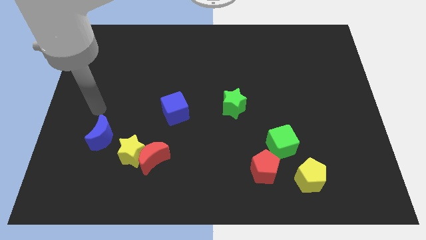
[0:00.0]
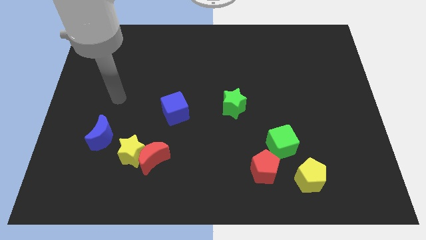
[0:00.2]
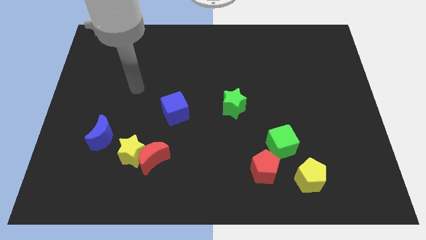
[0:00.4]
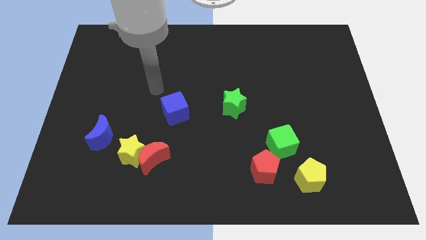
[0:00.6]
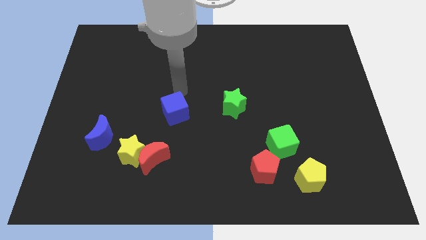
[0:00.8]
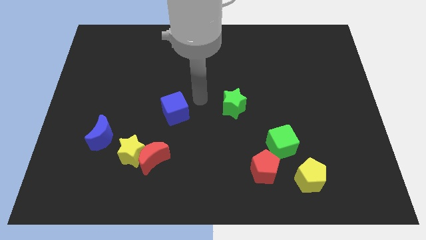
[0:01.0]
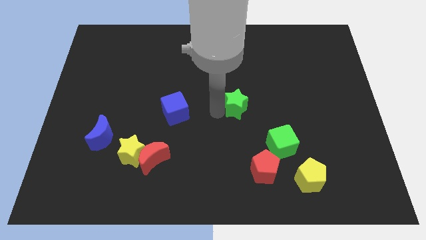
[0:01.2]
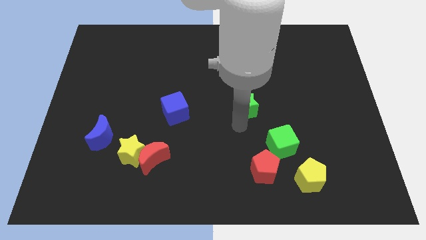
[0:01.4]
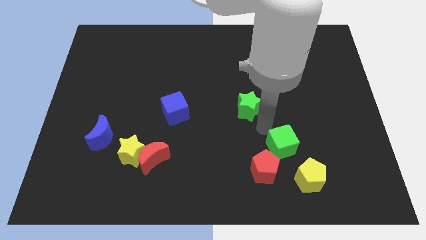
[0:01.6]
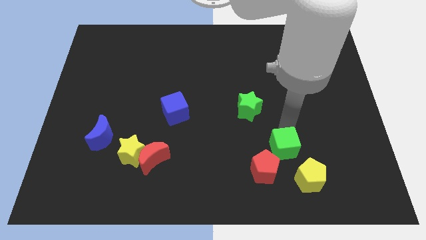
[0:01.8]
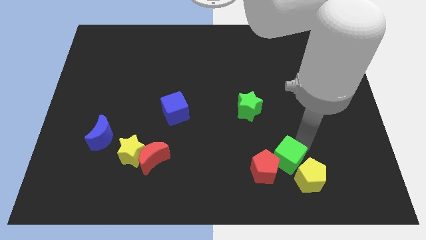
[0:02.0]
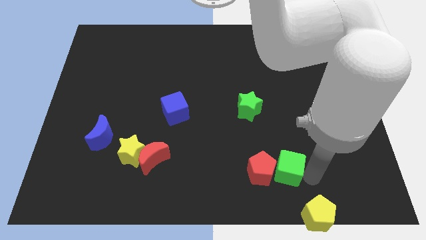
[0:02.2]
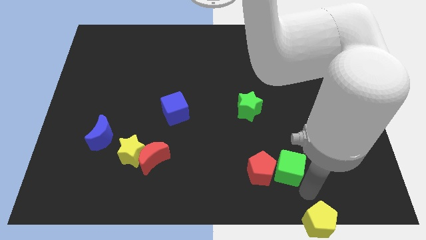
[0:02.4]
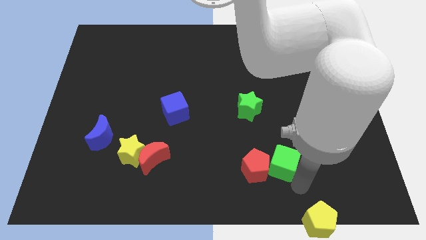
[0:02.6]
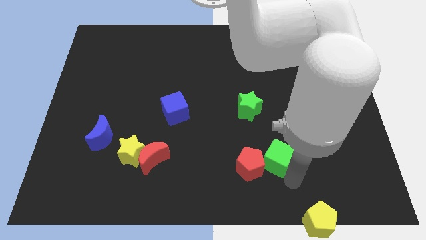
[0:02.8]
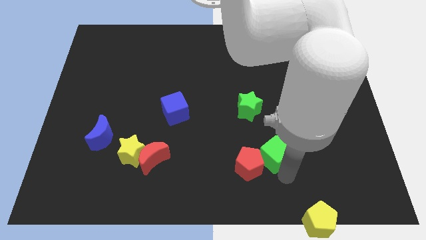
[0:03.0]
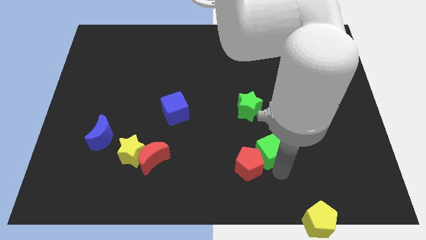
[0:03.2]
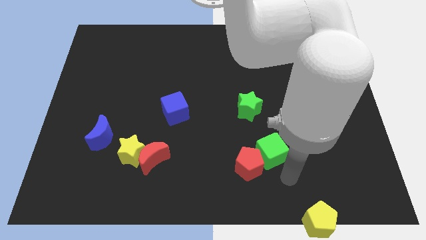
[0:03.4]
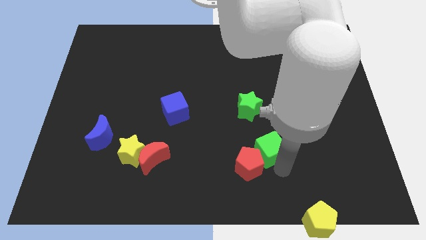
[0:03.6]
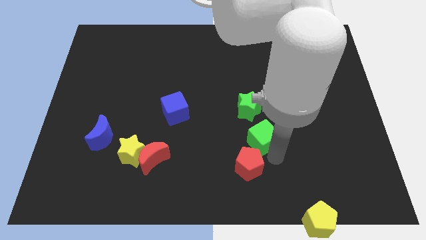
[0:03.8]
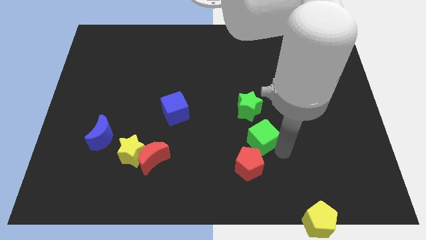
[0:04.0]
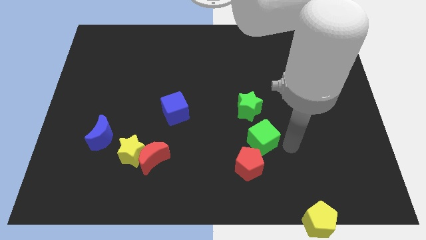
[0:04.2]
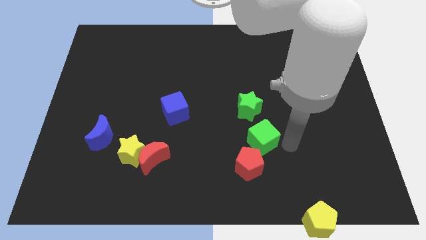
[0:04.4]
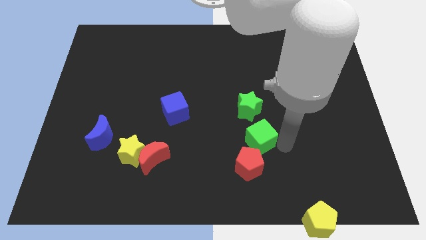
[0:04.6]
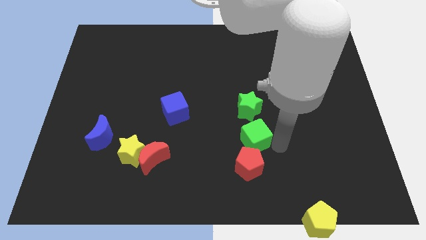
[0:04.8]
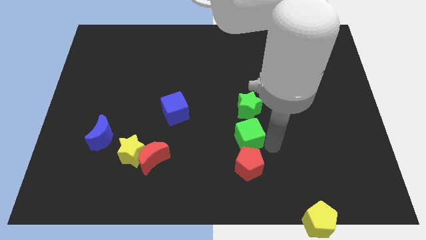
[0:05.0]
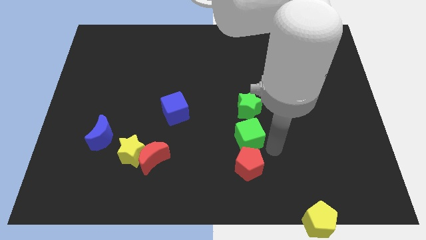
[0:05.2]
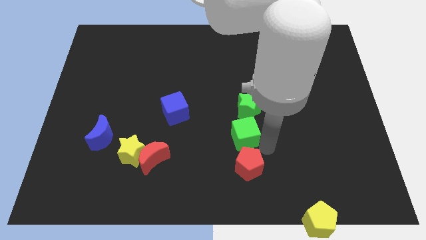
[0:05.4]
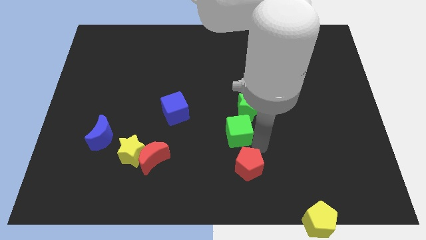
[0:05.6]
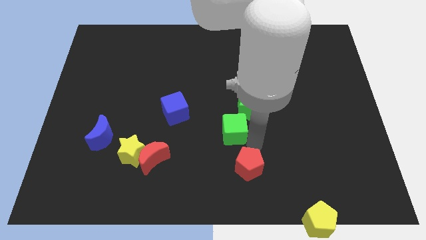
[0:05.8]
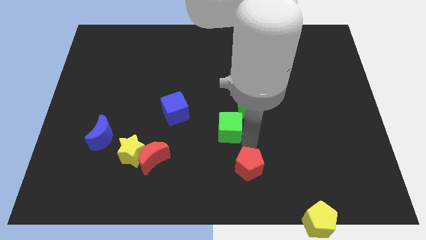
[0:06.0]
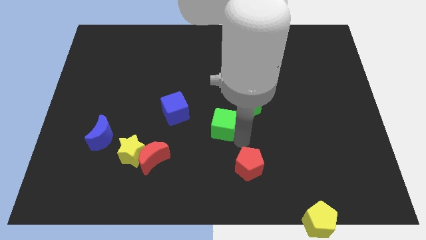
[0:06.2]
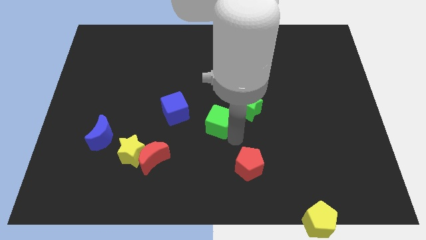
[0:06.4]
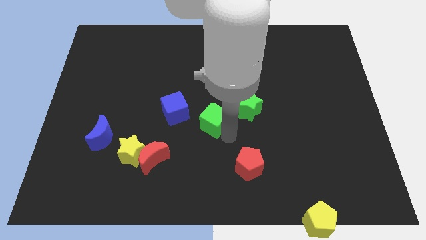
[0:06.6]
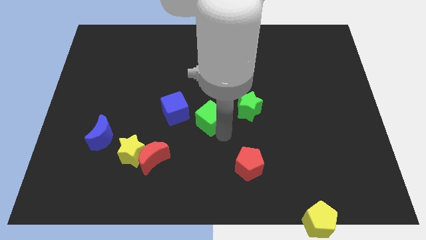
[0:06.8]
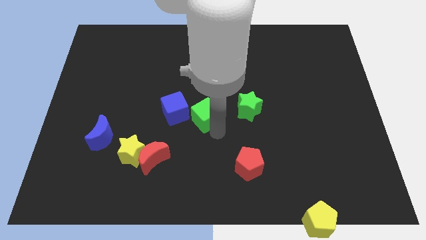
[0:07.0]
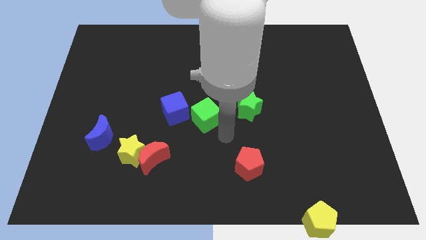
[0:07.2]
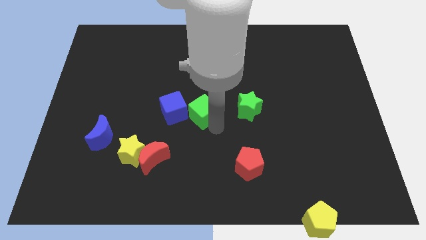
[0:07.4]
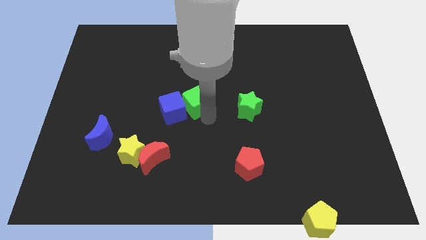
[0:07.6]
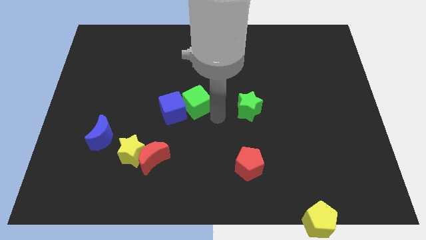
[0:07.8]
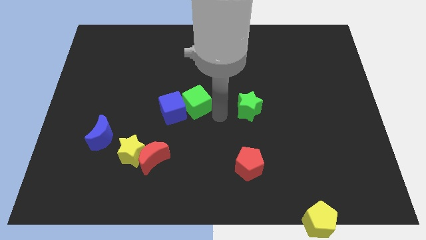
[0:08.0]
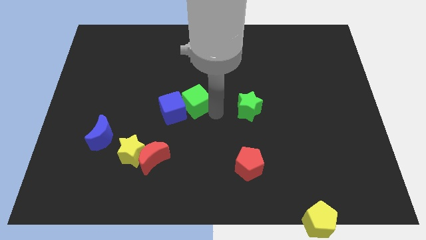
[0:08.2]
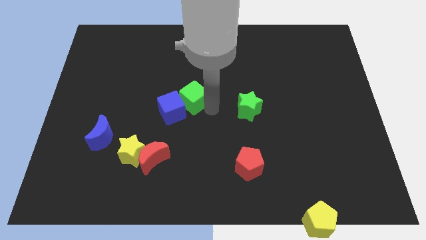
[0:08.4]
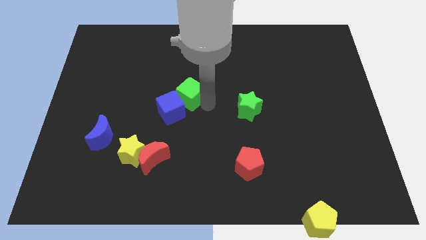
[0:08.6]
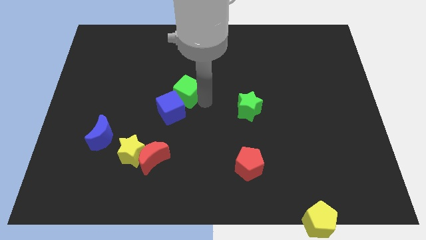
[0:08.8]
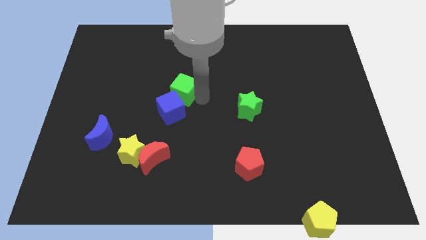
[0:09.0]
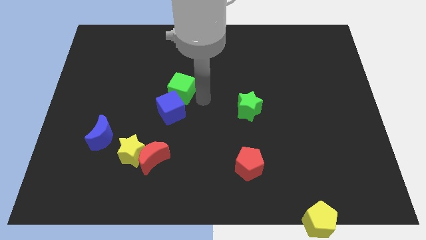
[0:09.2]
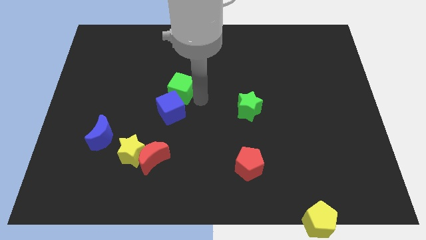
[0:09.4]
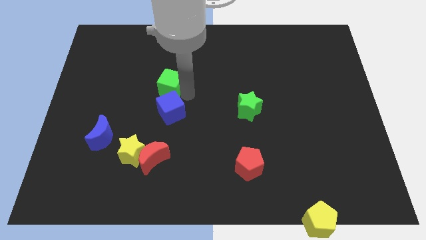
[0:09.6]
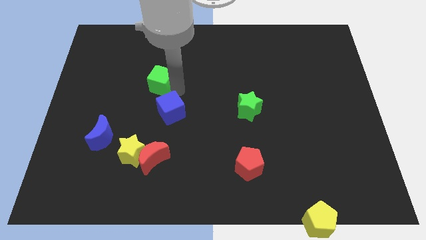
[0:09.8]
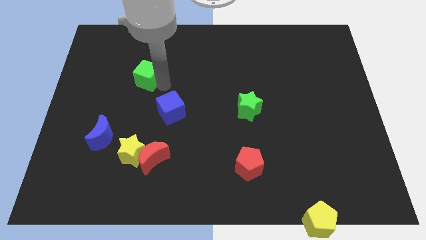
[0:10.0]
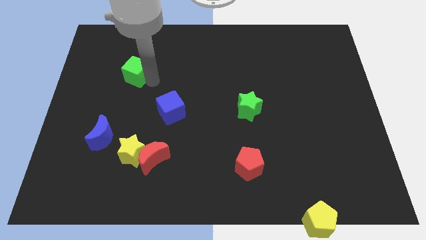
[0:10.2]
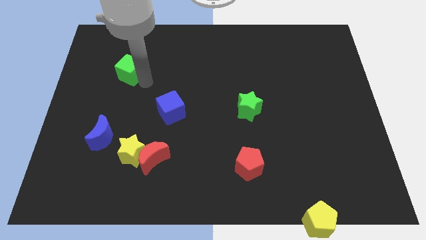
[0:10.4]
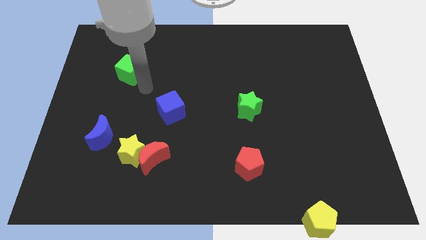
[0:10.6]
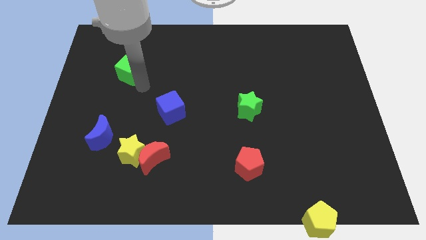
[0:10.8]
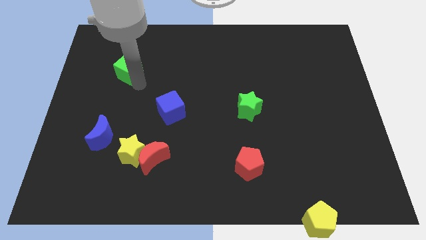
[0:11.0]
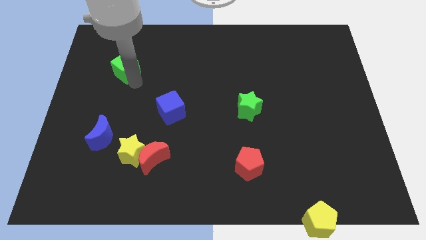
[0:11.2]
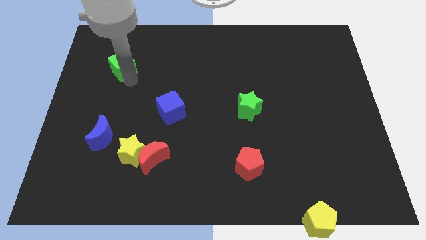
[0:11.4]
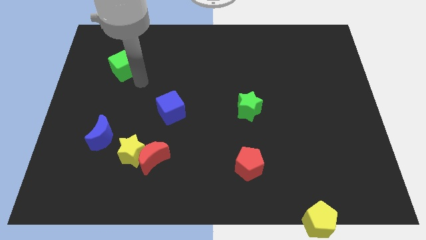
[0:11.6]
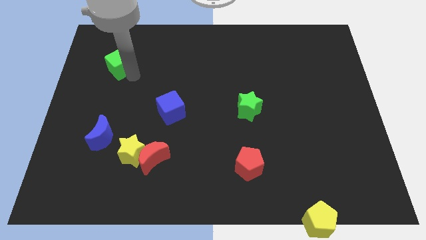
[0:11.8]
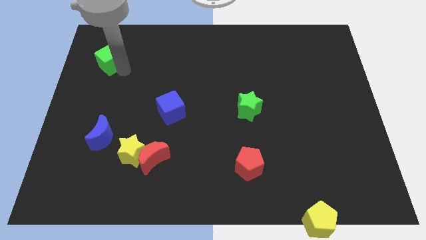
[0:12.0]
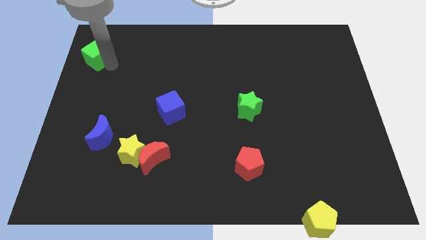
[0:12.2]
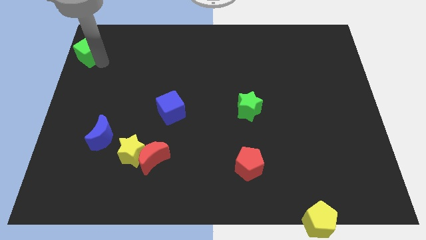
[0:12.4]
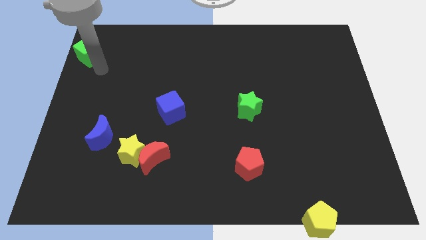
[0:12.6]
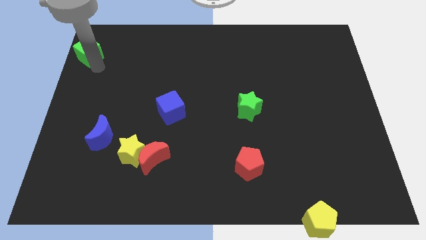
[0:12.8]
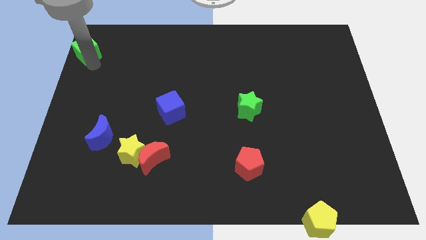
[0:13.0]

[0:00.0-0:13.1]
push the green cube to the top left corner
